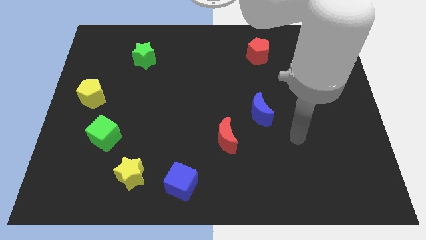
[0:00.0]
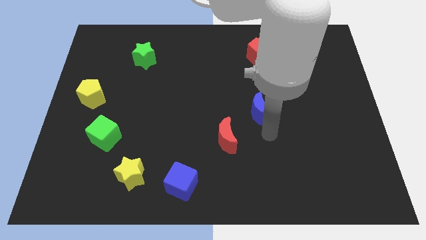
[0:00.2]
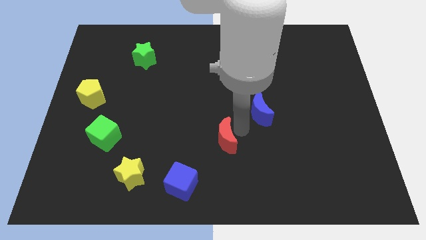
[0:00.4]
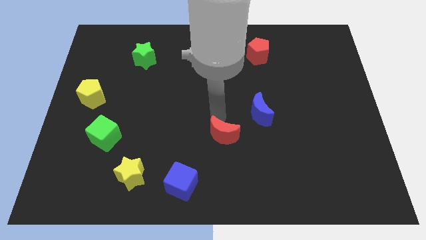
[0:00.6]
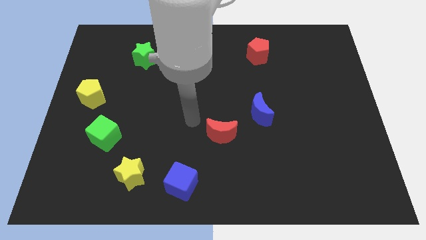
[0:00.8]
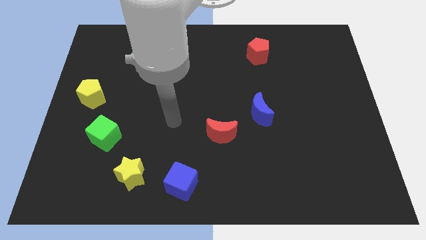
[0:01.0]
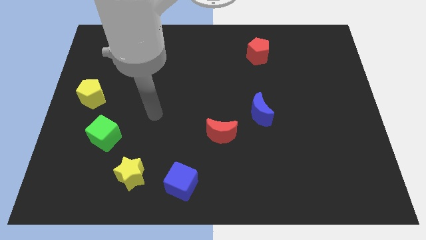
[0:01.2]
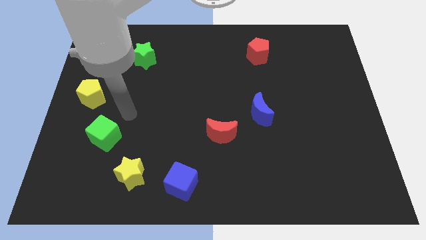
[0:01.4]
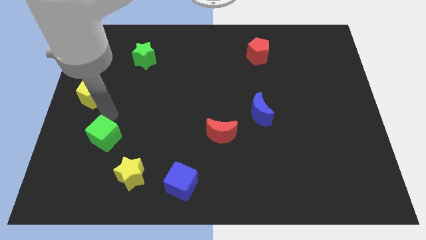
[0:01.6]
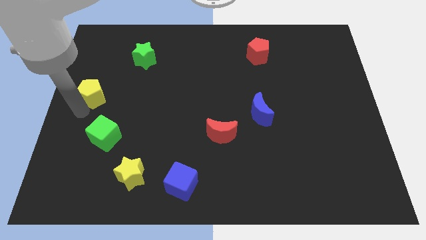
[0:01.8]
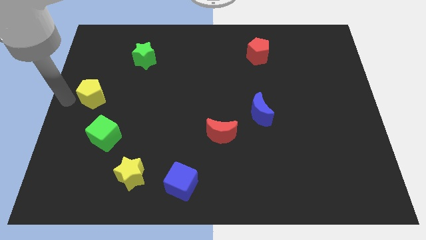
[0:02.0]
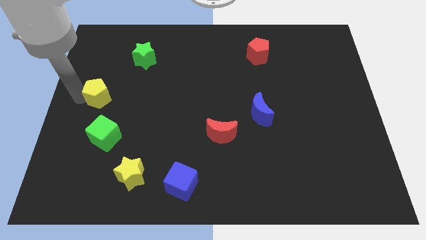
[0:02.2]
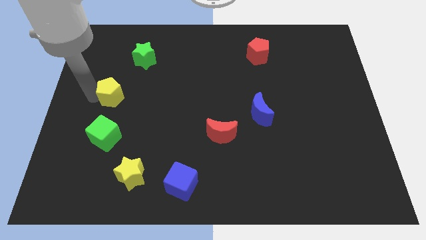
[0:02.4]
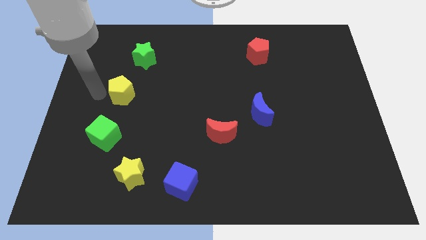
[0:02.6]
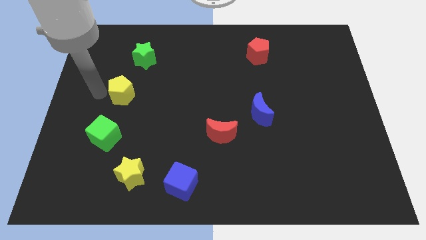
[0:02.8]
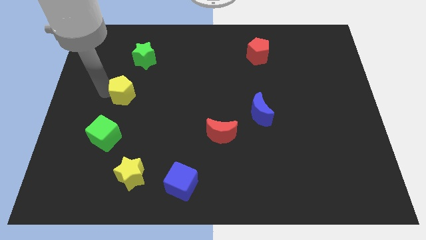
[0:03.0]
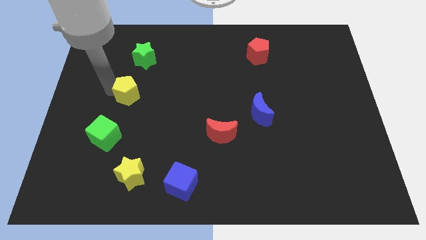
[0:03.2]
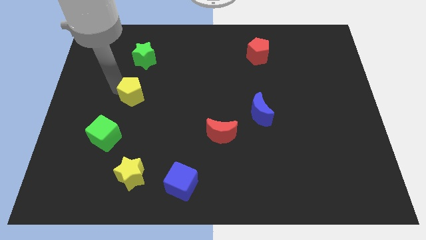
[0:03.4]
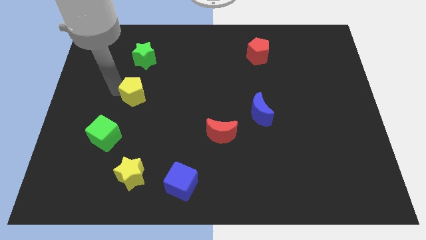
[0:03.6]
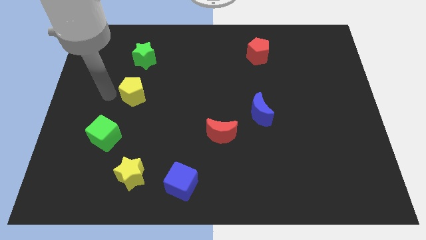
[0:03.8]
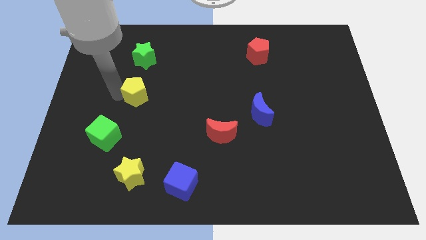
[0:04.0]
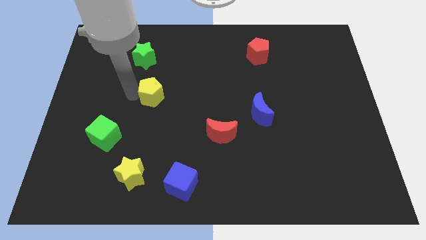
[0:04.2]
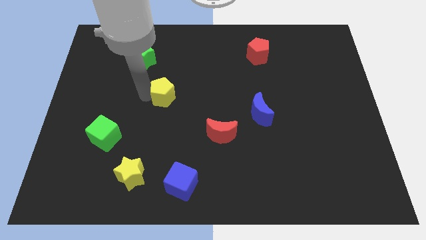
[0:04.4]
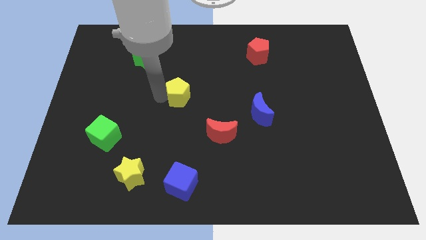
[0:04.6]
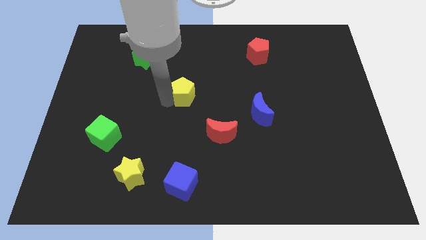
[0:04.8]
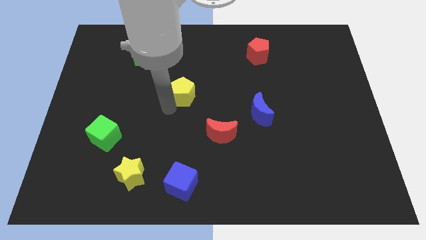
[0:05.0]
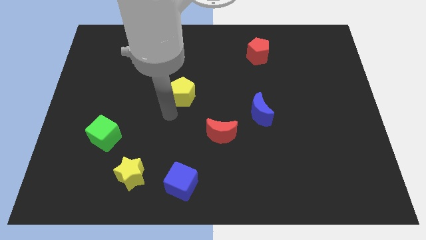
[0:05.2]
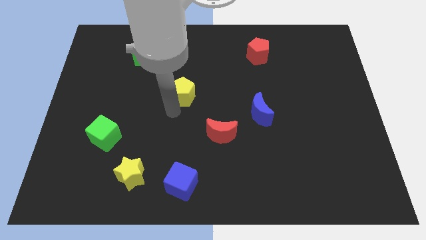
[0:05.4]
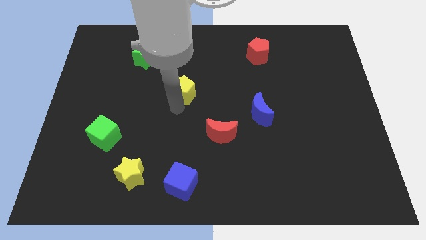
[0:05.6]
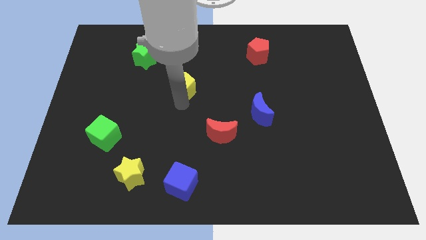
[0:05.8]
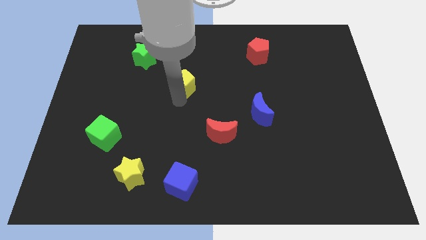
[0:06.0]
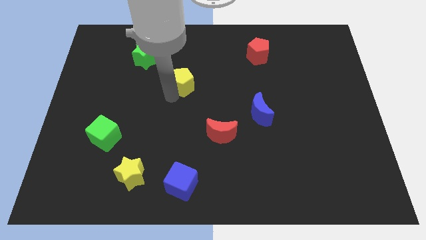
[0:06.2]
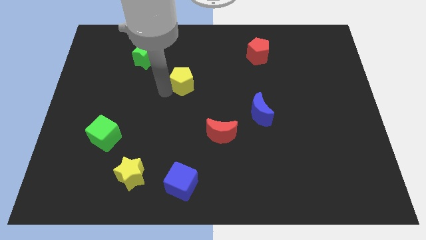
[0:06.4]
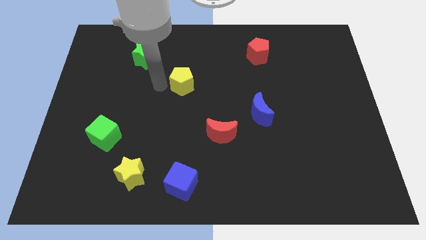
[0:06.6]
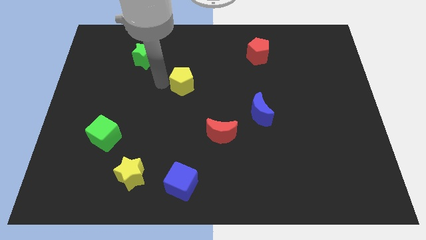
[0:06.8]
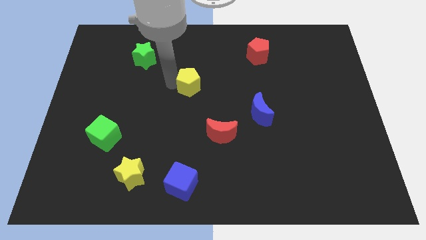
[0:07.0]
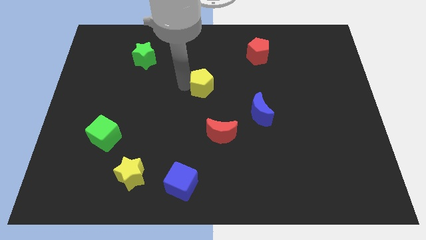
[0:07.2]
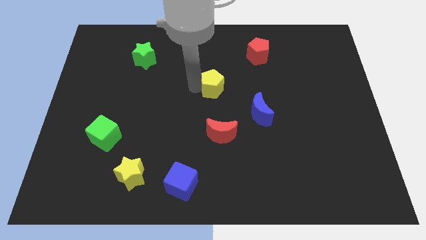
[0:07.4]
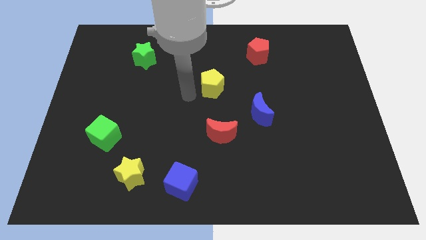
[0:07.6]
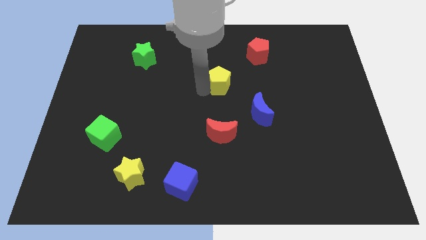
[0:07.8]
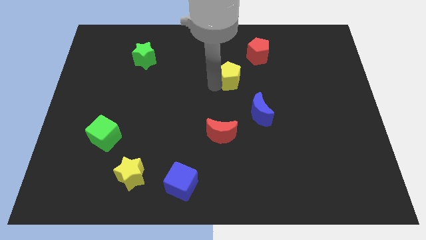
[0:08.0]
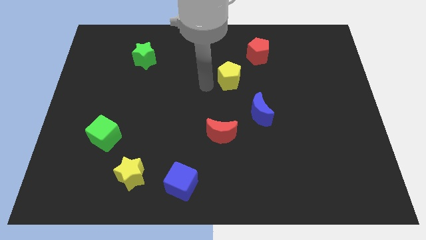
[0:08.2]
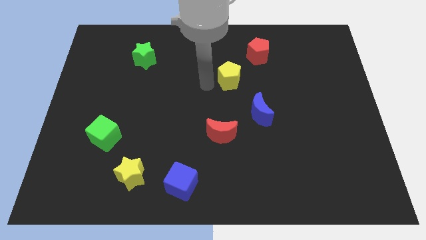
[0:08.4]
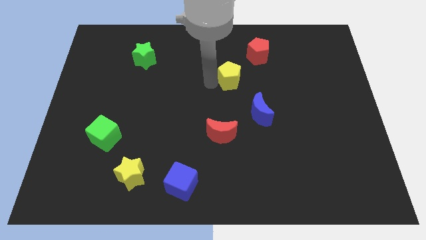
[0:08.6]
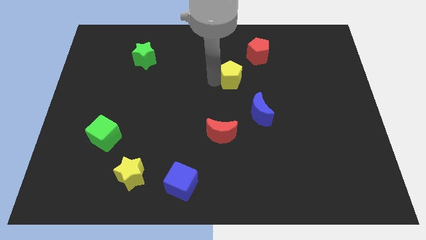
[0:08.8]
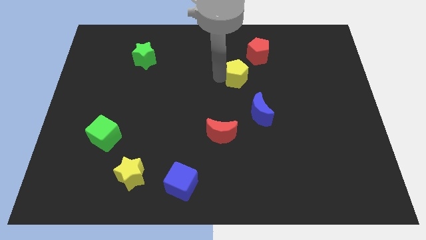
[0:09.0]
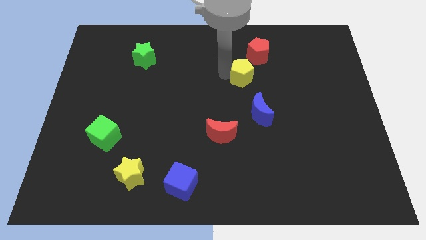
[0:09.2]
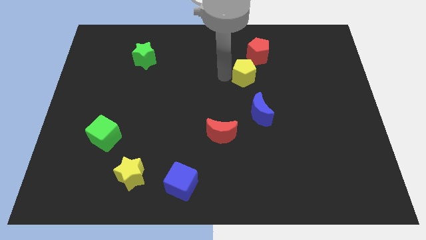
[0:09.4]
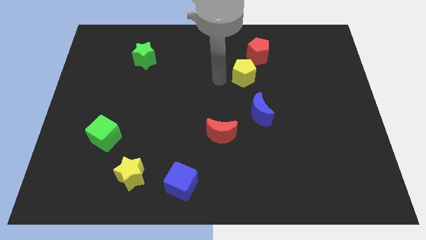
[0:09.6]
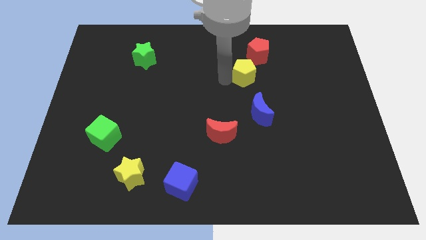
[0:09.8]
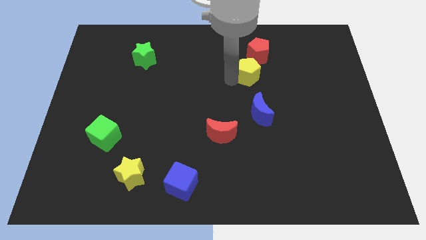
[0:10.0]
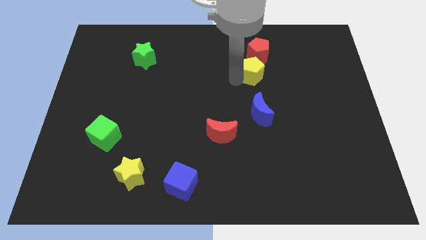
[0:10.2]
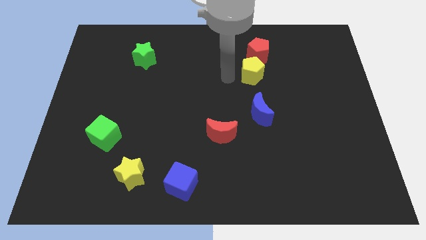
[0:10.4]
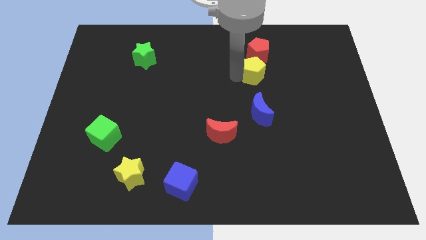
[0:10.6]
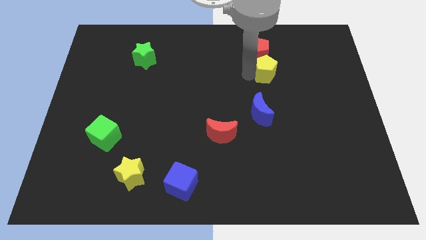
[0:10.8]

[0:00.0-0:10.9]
slide the yellow pentagon diagonally down and to the right of the red pentagon
